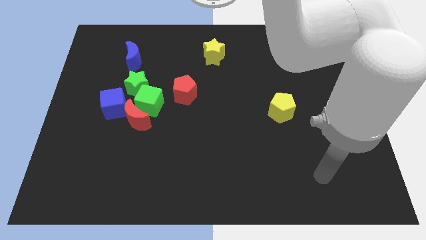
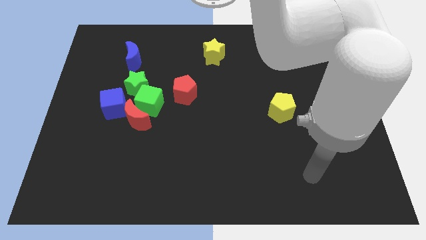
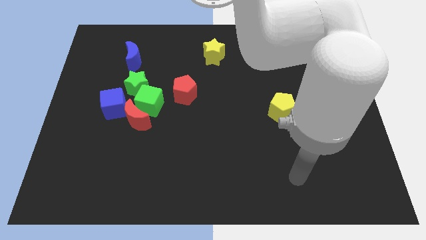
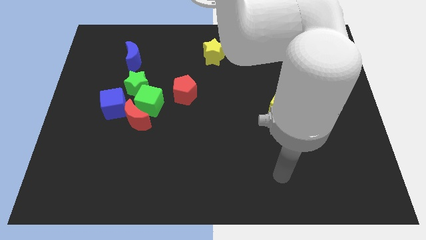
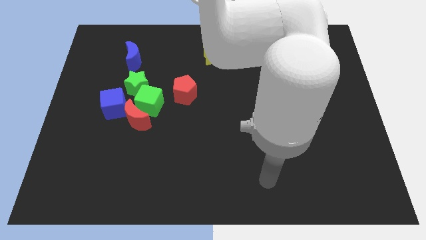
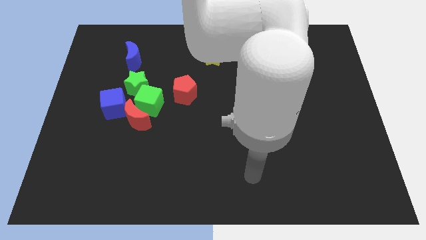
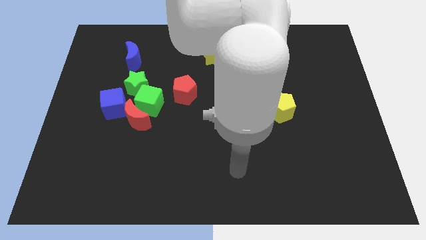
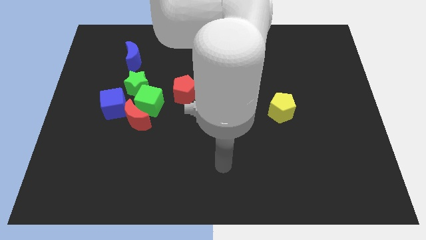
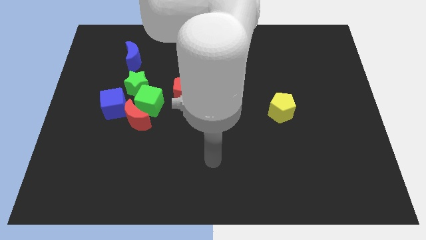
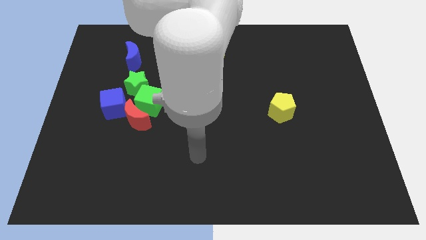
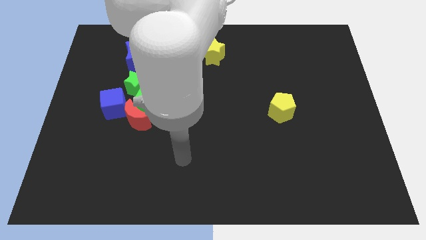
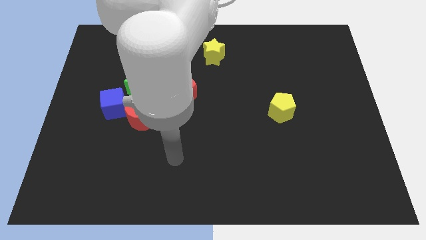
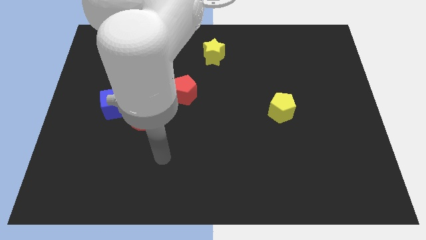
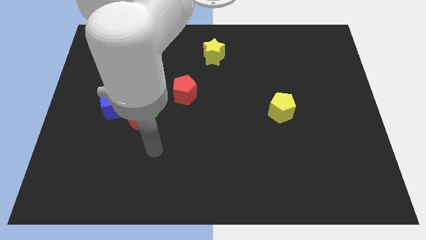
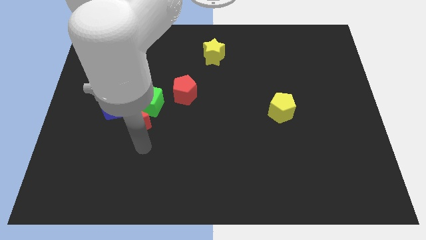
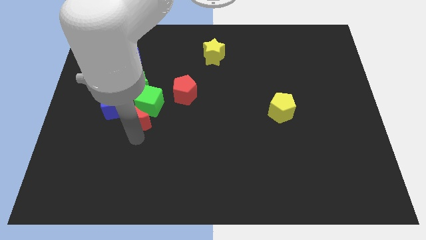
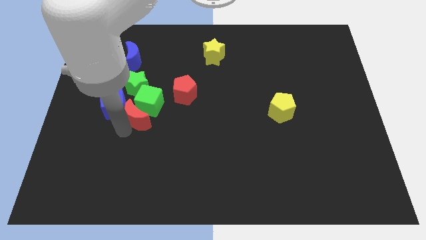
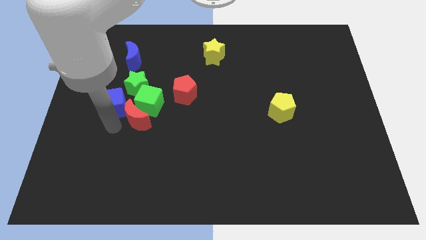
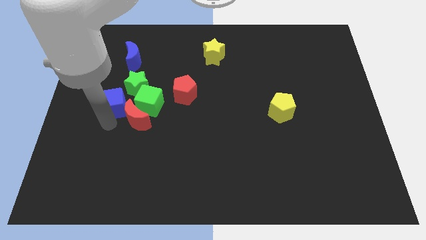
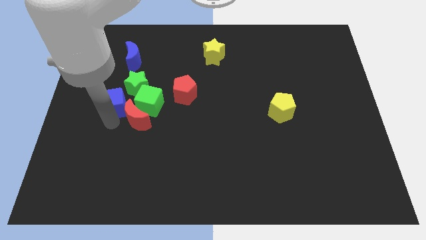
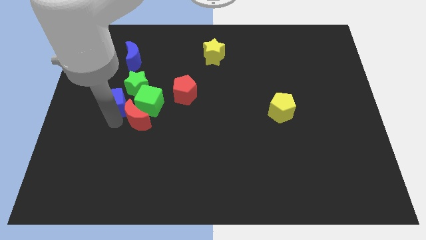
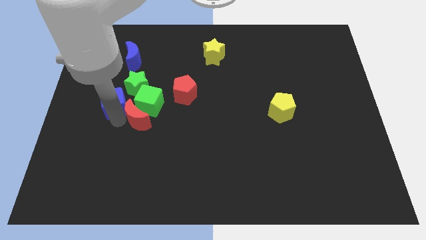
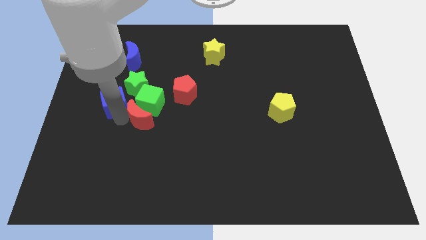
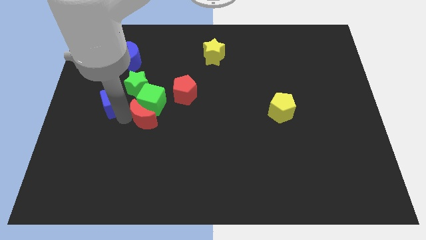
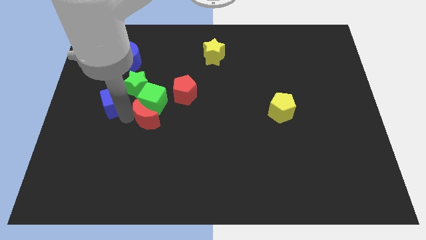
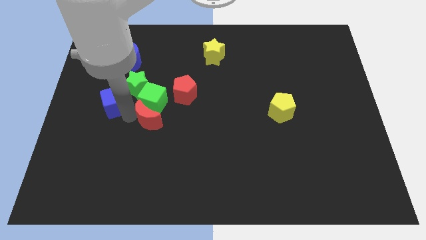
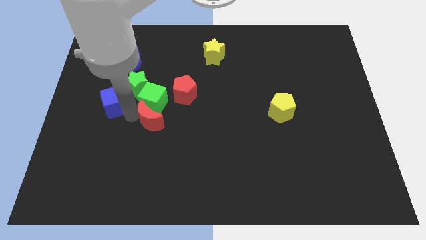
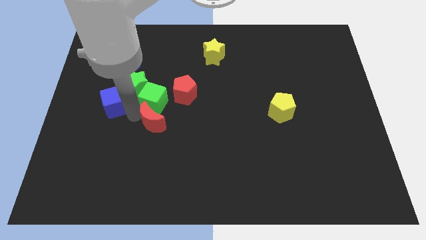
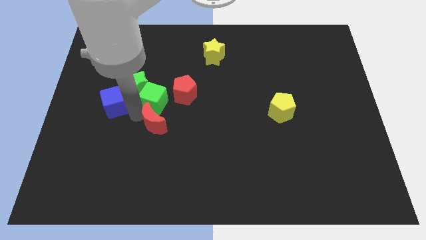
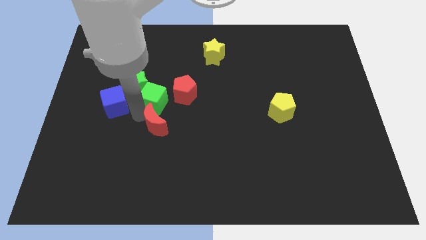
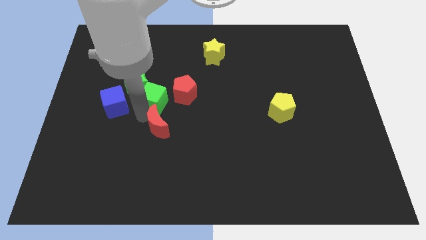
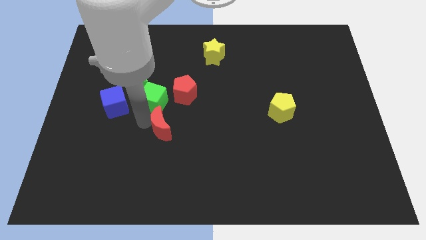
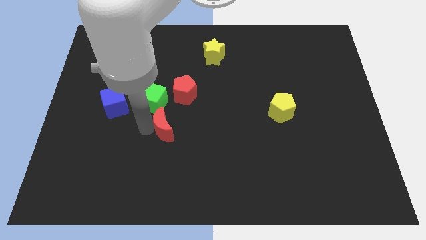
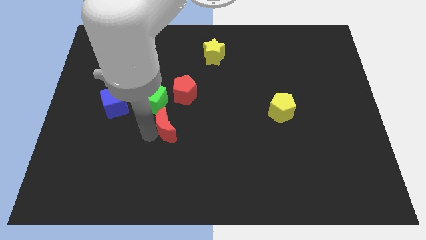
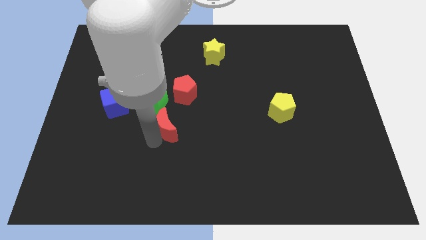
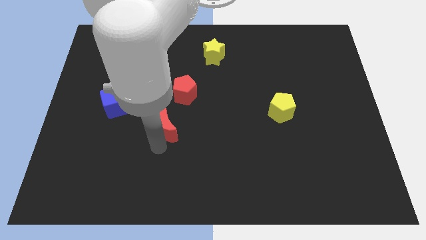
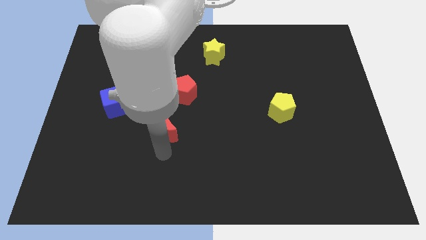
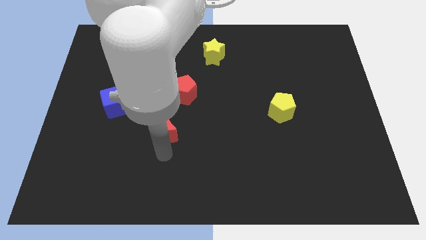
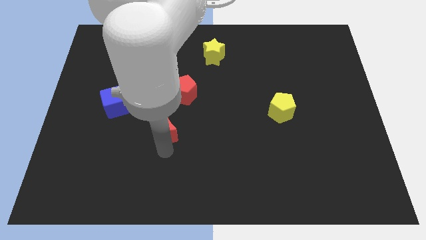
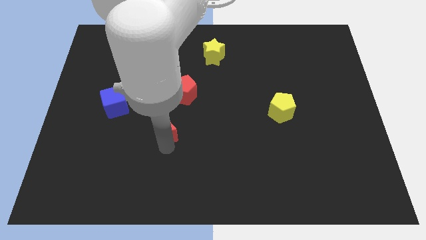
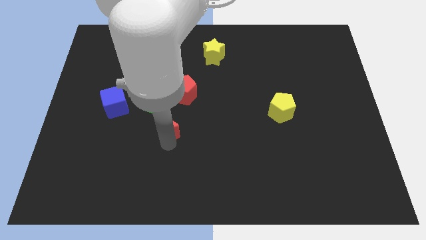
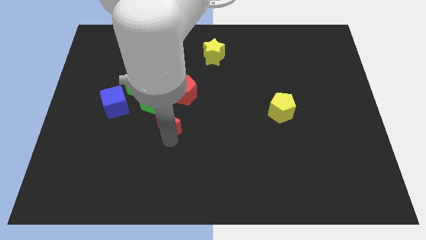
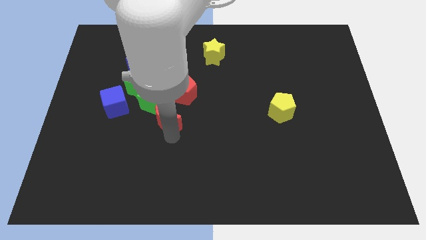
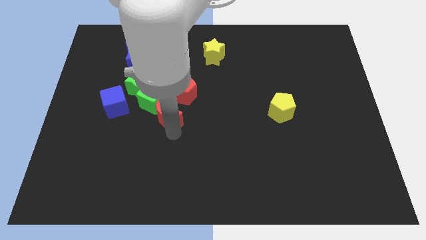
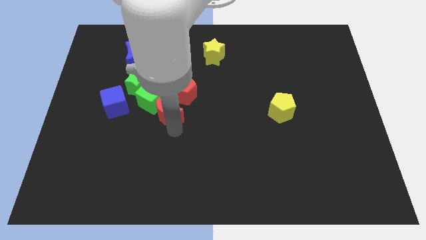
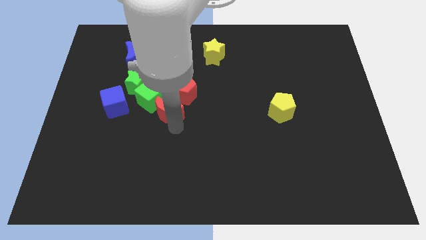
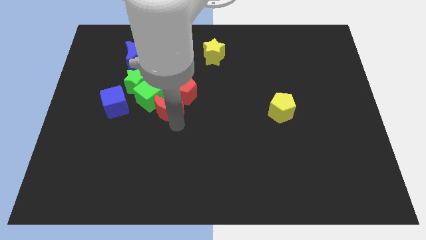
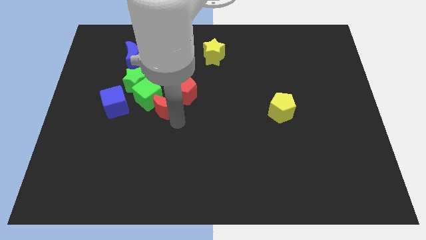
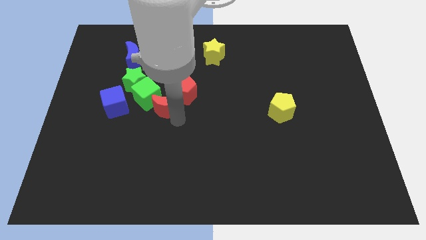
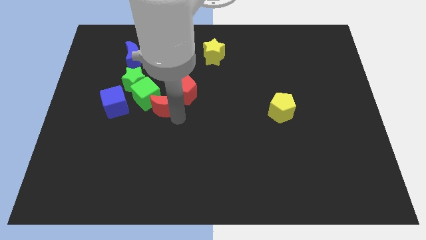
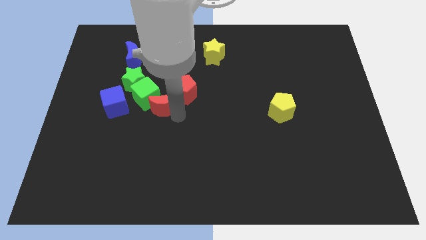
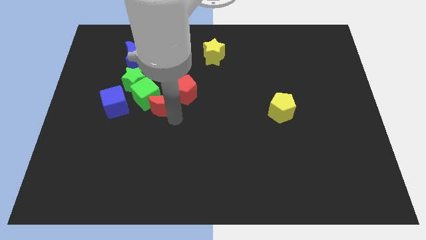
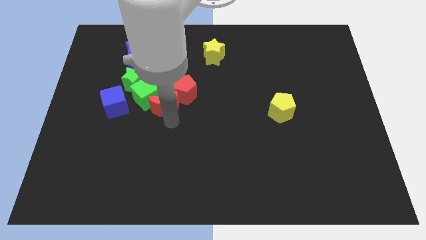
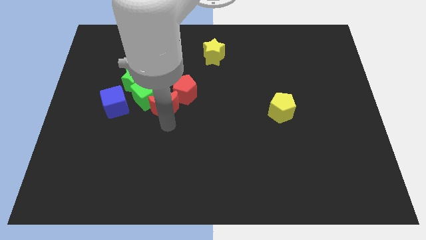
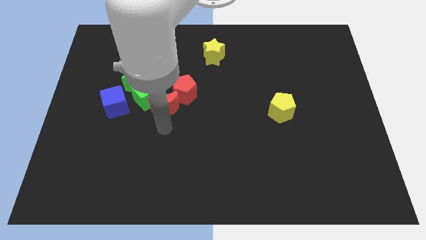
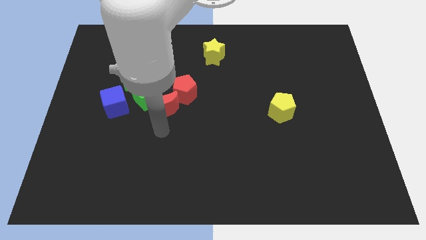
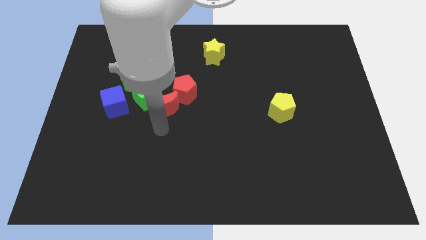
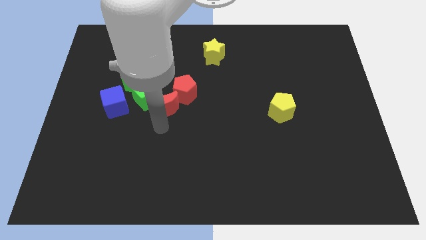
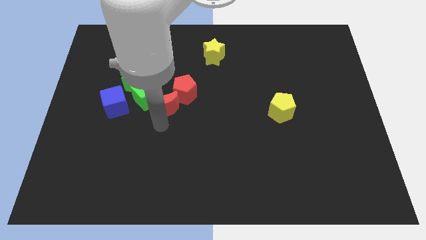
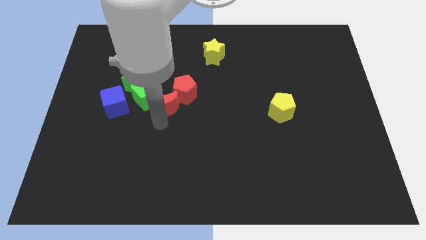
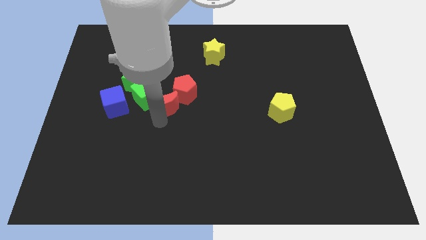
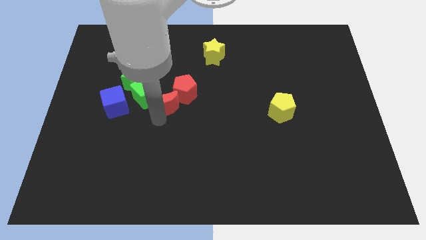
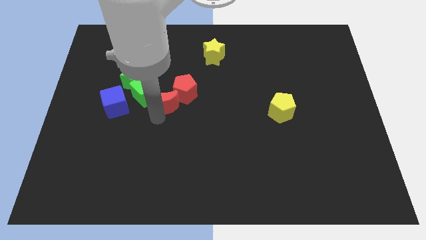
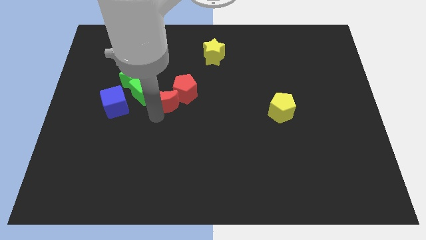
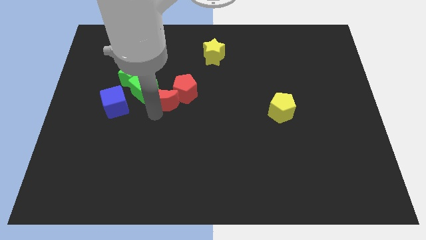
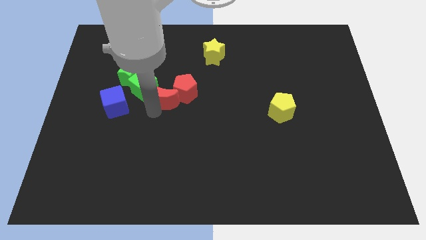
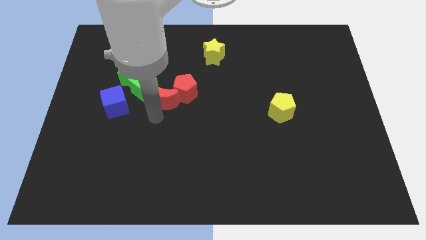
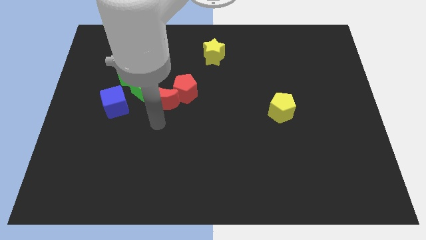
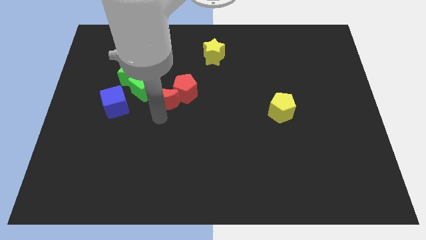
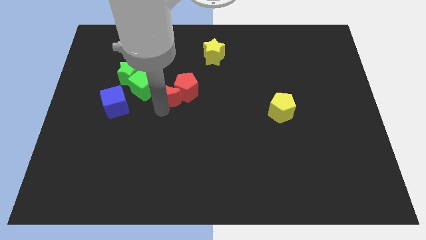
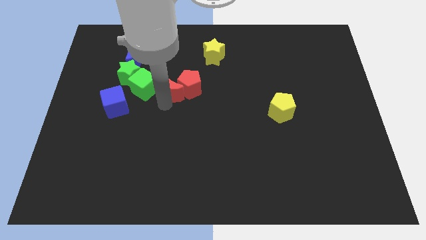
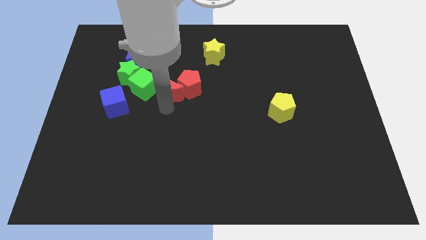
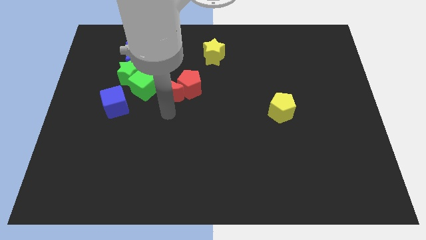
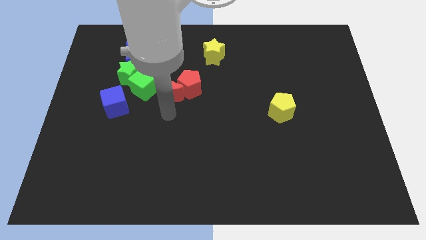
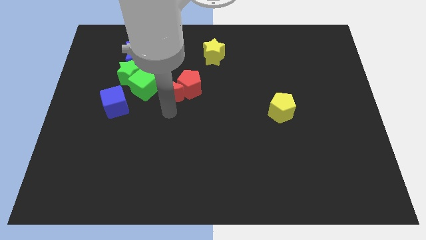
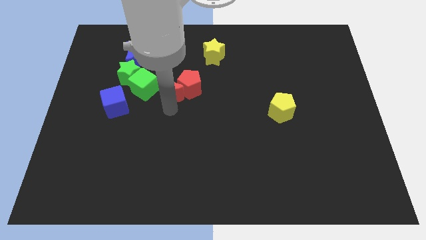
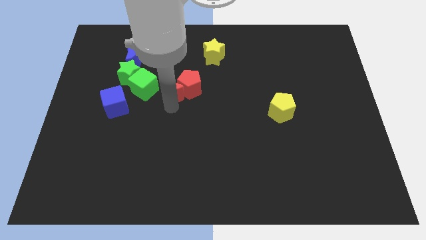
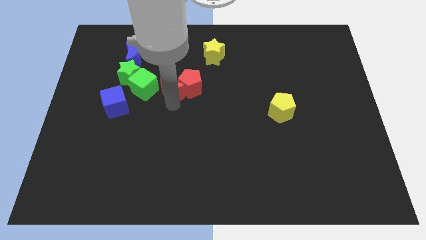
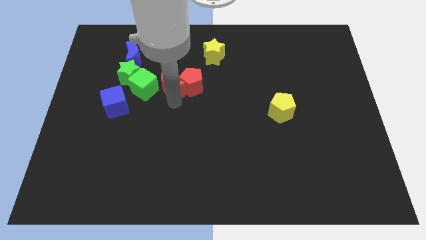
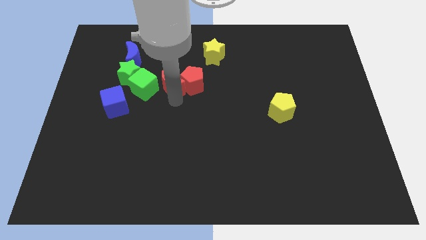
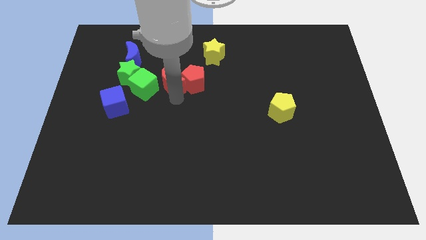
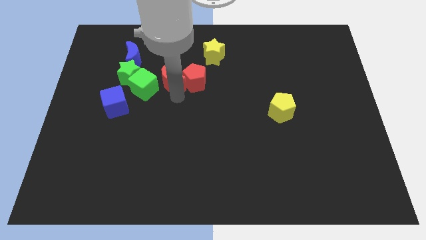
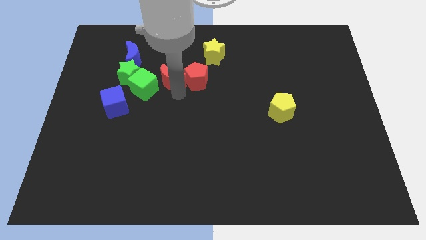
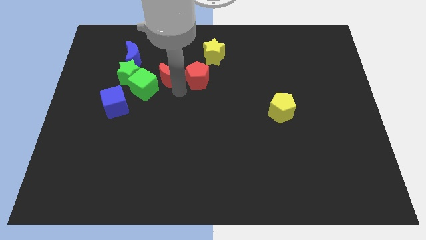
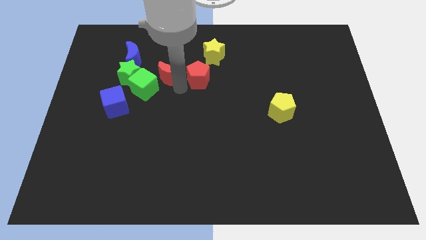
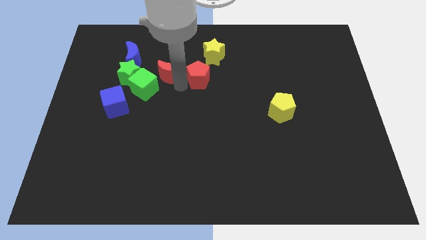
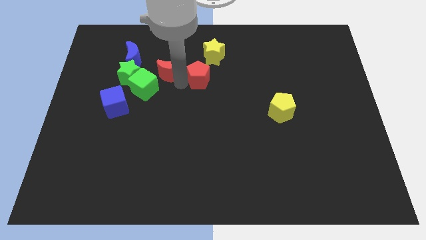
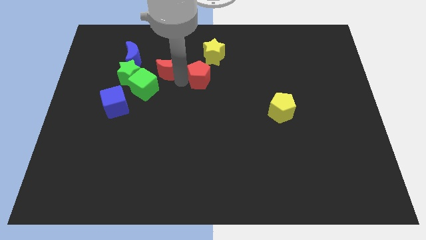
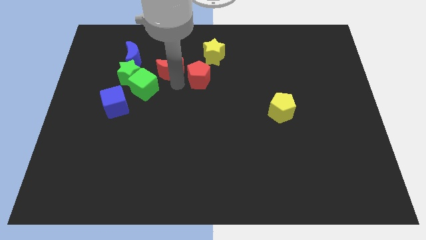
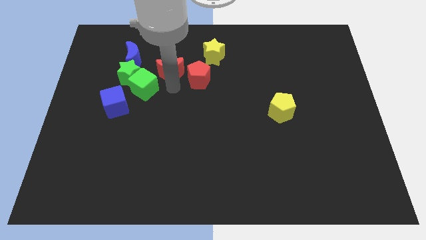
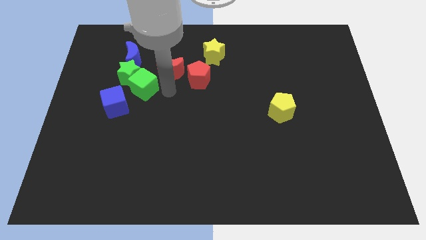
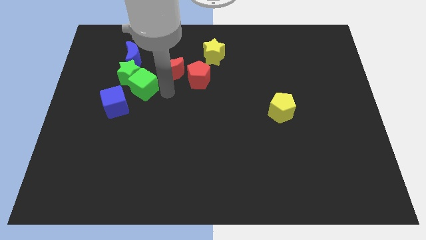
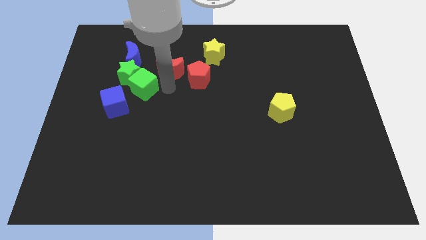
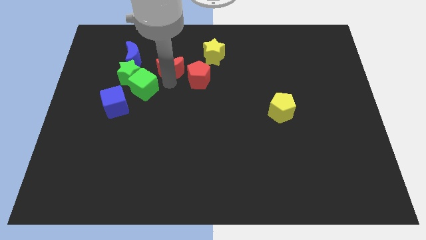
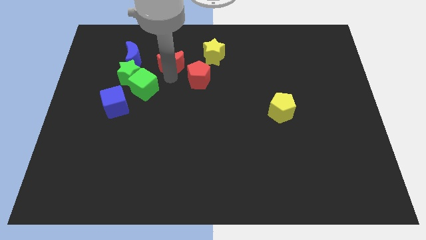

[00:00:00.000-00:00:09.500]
put the red moon left of the yellow star
